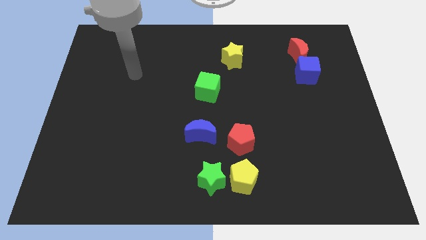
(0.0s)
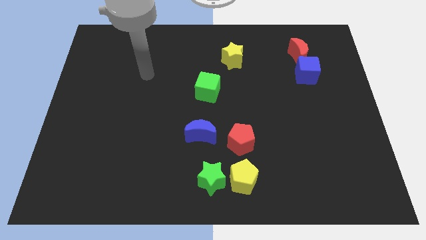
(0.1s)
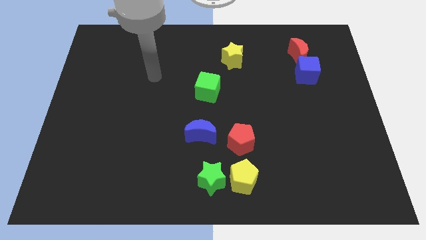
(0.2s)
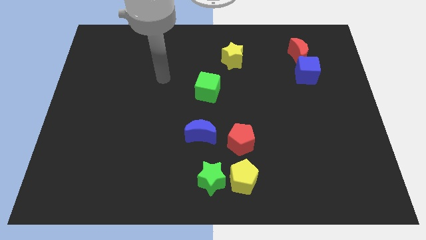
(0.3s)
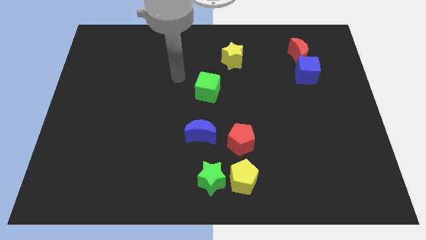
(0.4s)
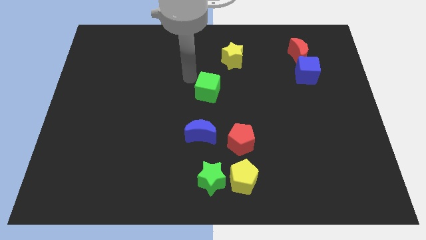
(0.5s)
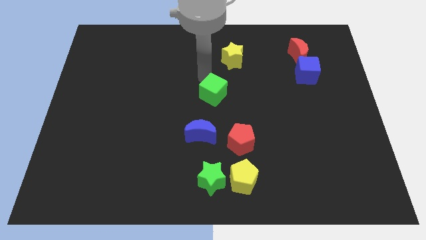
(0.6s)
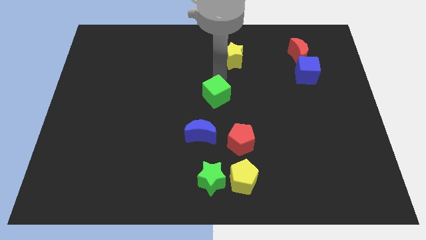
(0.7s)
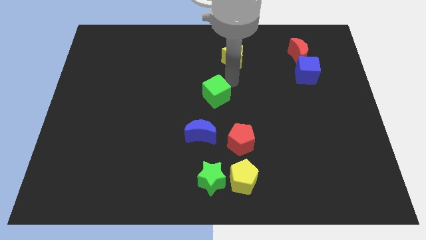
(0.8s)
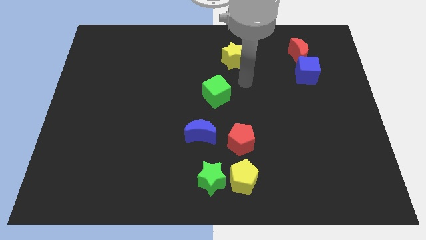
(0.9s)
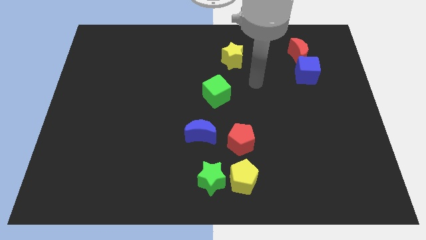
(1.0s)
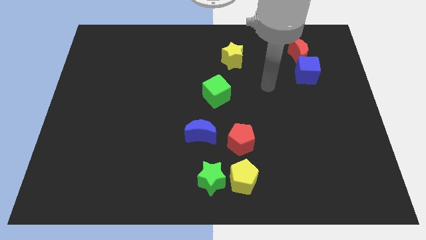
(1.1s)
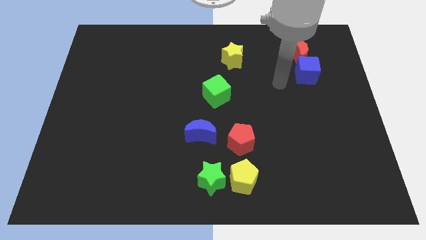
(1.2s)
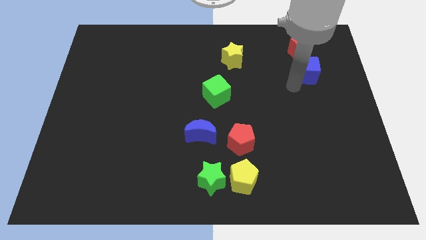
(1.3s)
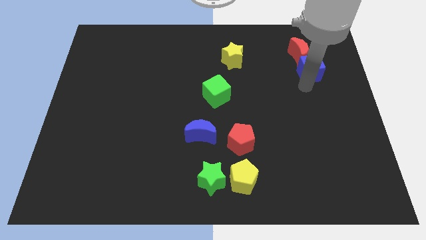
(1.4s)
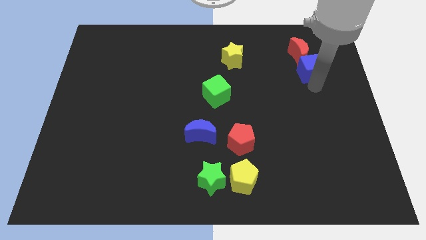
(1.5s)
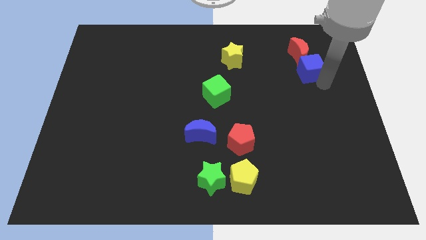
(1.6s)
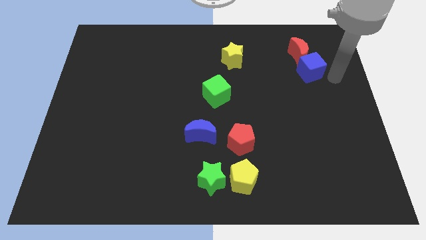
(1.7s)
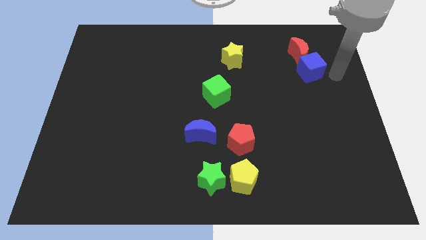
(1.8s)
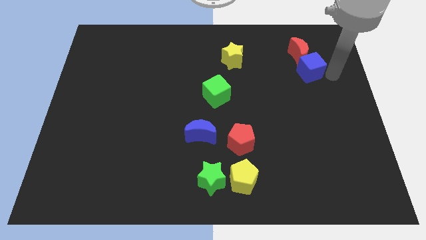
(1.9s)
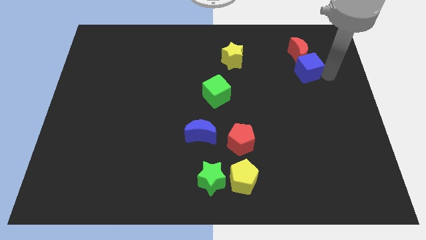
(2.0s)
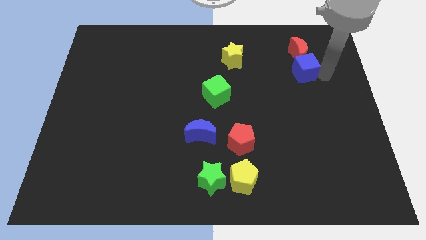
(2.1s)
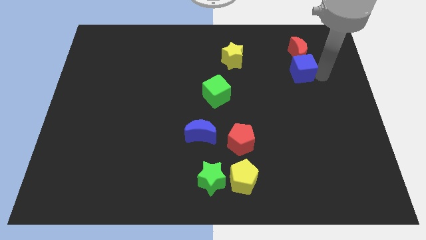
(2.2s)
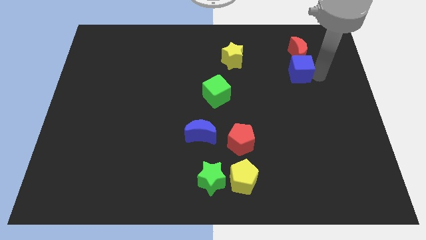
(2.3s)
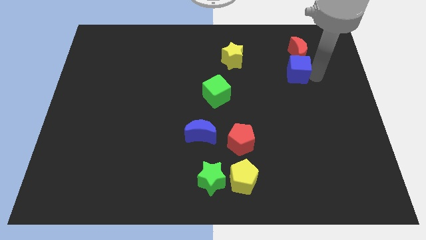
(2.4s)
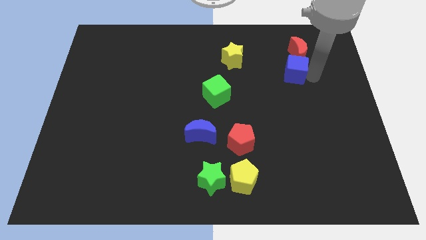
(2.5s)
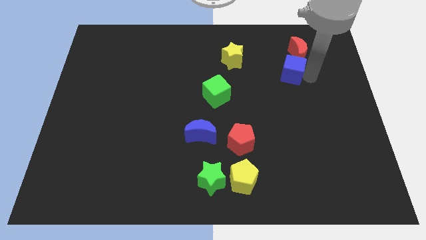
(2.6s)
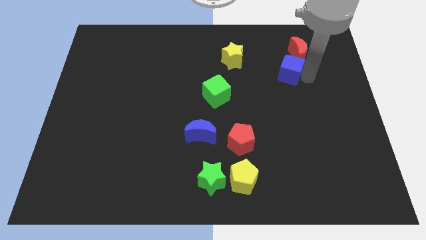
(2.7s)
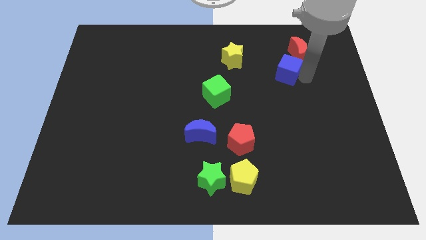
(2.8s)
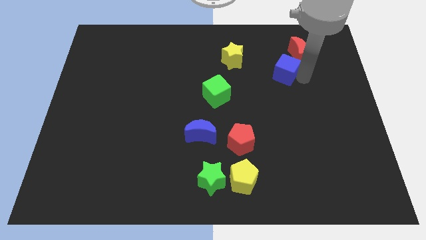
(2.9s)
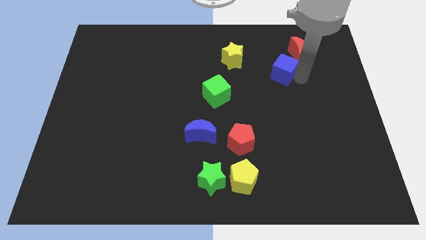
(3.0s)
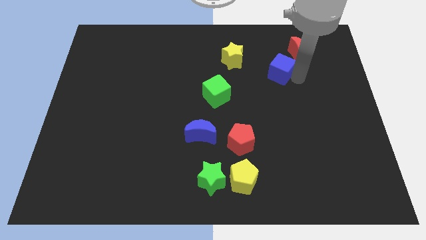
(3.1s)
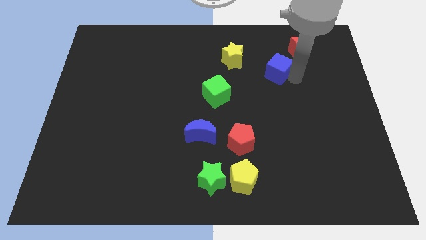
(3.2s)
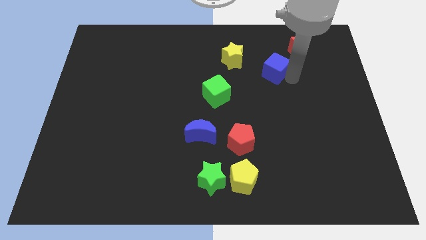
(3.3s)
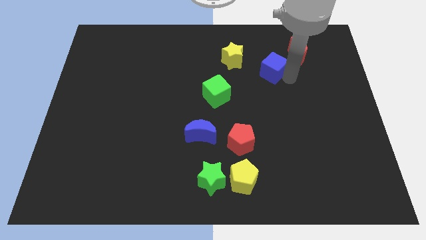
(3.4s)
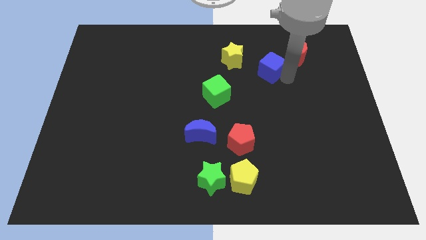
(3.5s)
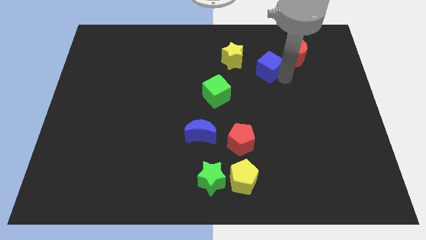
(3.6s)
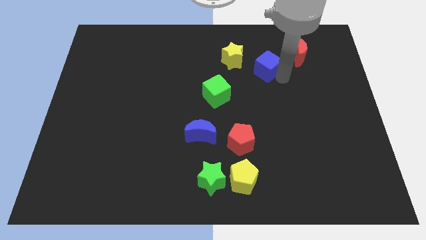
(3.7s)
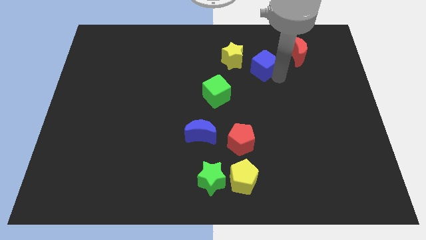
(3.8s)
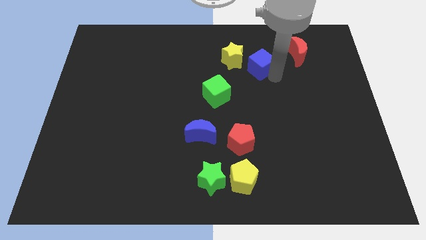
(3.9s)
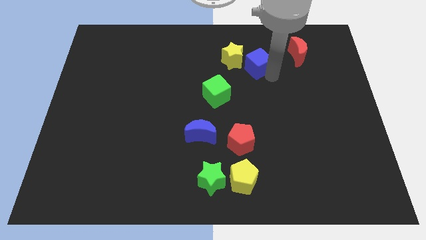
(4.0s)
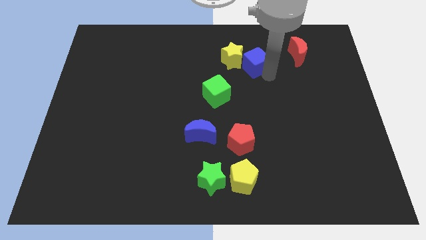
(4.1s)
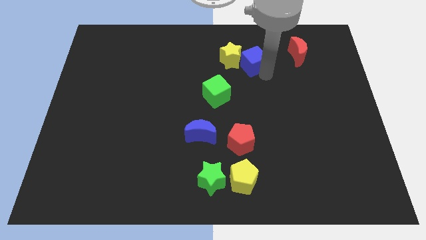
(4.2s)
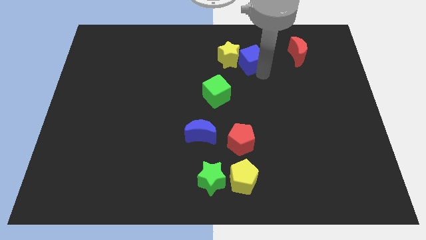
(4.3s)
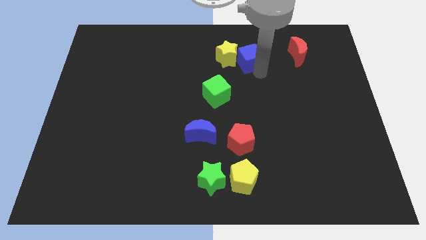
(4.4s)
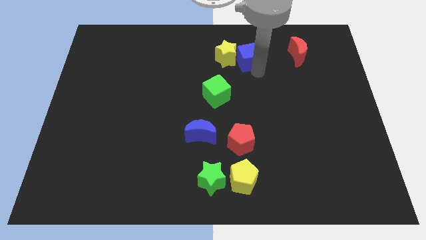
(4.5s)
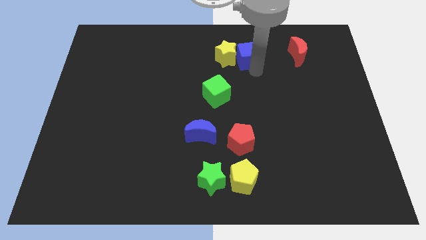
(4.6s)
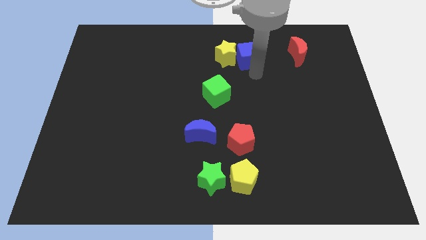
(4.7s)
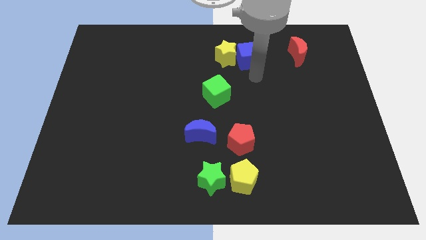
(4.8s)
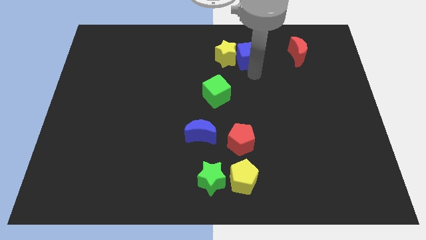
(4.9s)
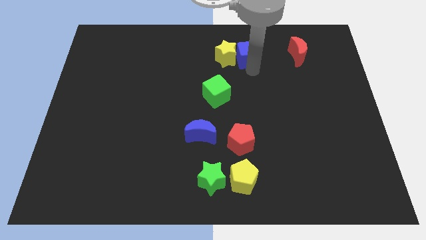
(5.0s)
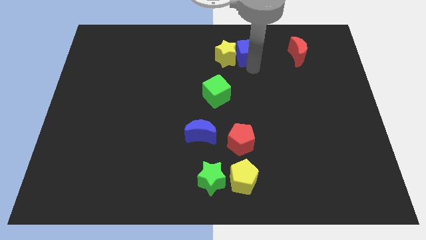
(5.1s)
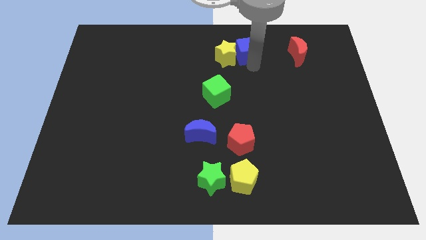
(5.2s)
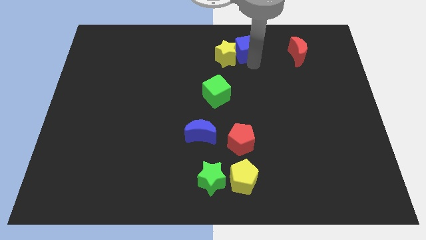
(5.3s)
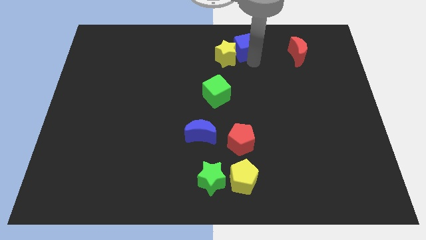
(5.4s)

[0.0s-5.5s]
put the blue cube to the top side

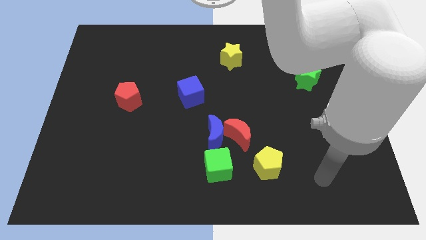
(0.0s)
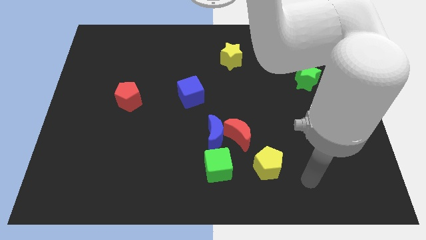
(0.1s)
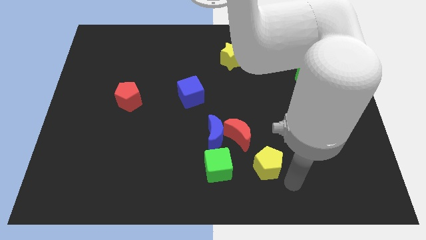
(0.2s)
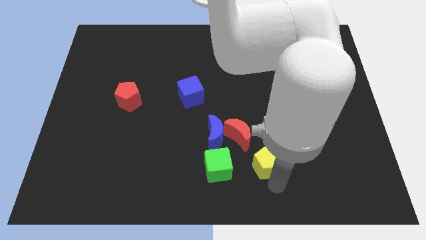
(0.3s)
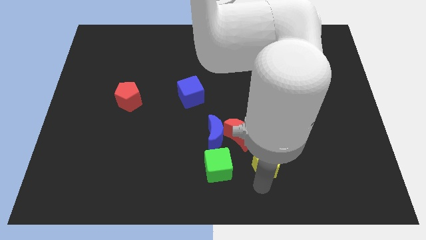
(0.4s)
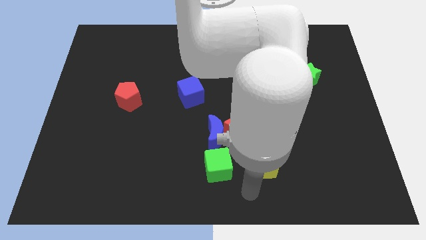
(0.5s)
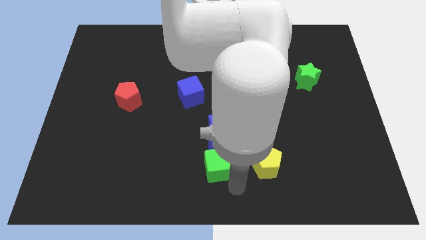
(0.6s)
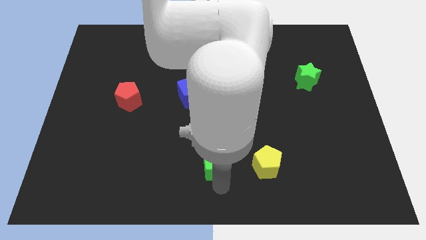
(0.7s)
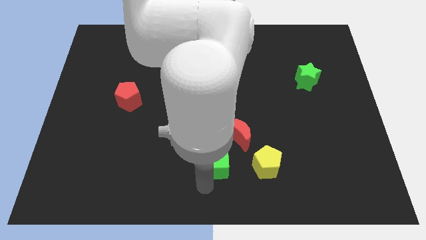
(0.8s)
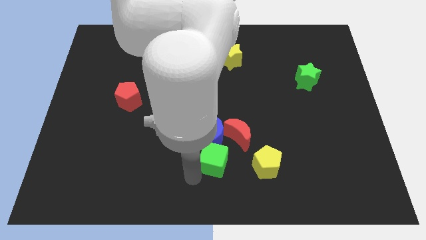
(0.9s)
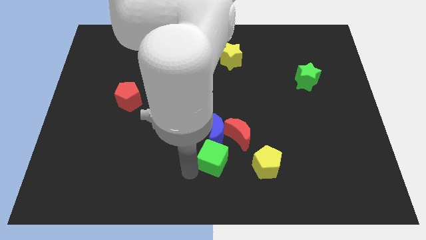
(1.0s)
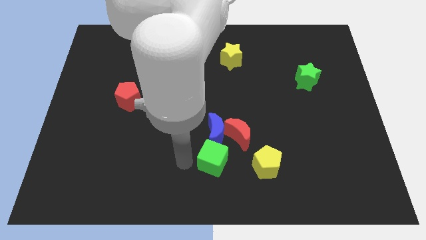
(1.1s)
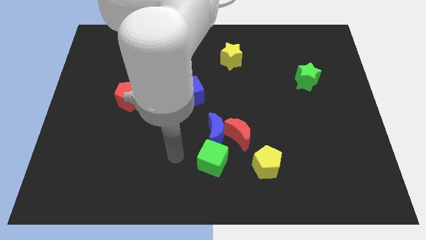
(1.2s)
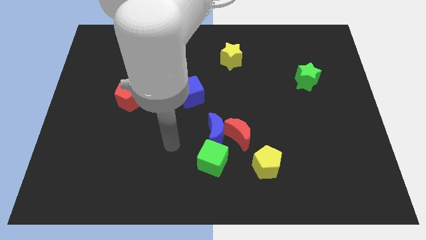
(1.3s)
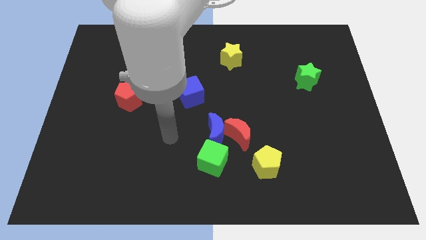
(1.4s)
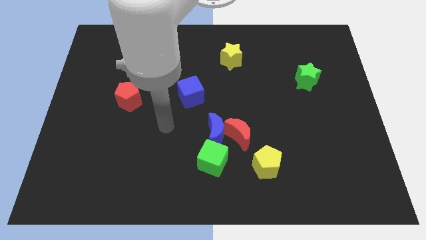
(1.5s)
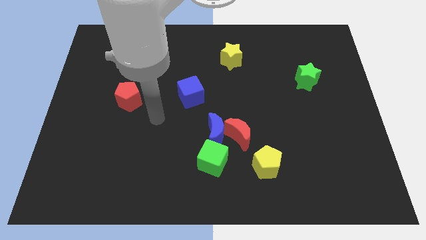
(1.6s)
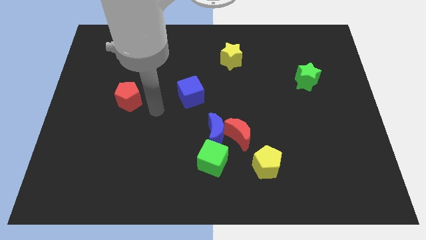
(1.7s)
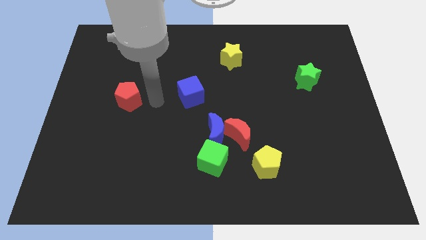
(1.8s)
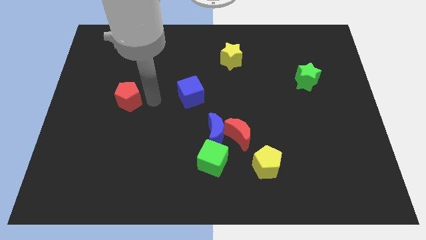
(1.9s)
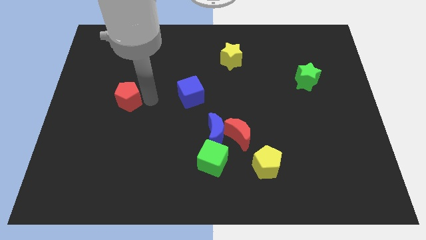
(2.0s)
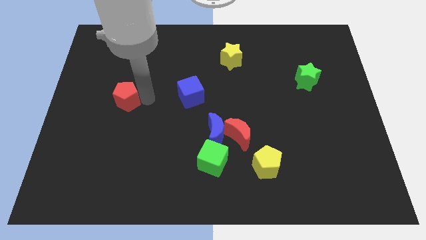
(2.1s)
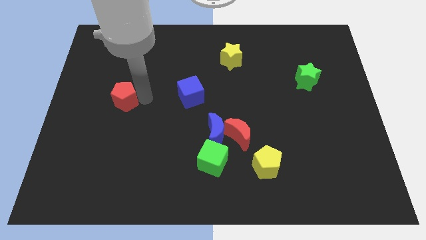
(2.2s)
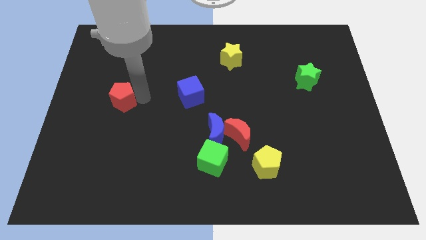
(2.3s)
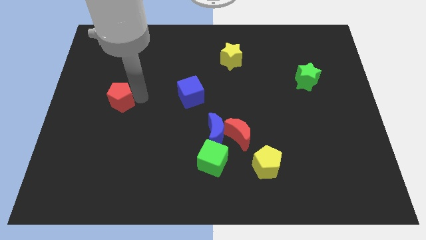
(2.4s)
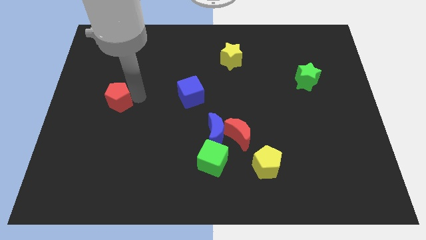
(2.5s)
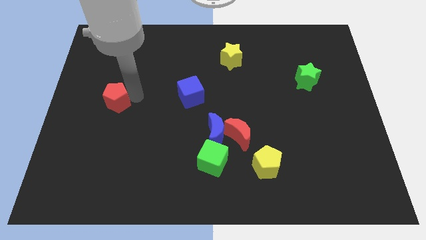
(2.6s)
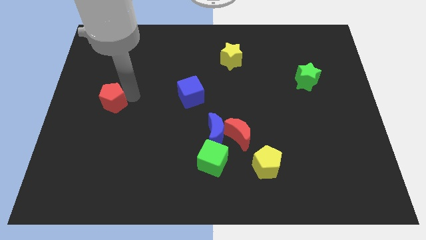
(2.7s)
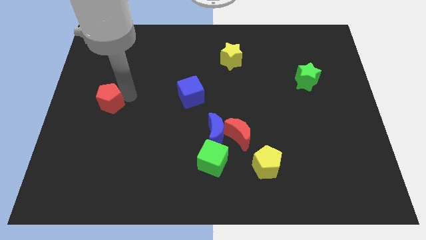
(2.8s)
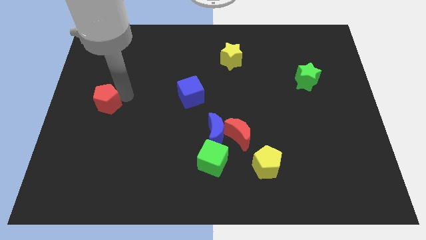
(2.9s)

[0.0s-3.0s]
put the red pentagon to the center left
